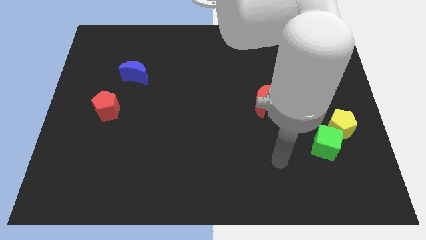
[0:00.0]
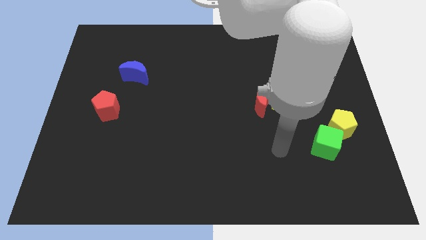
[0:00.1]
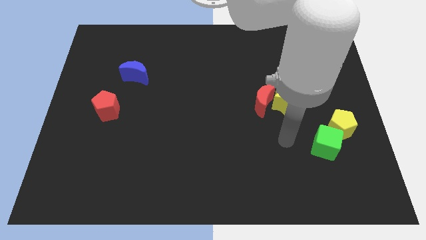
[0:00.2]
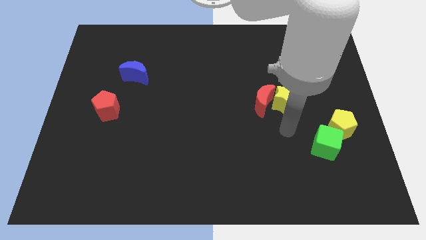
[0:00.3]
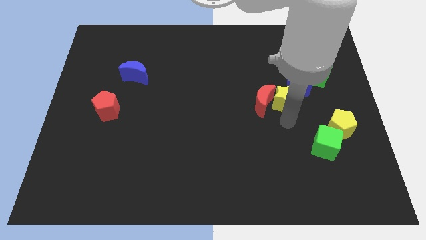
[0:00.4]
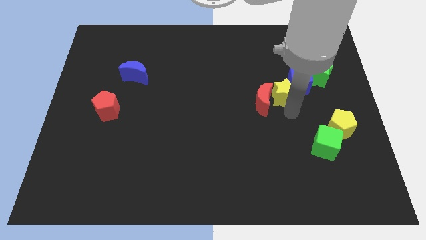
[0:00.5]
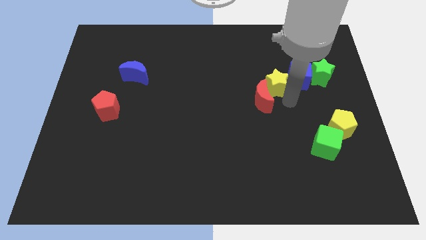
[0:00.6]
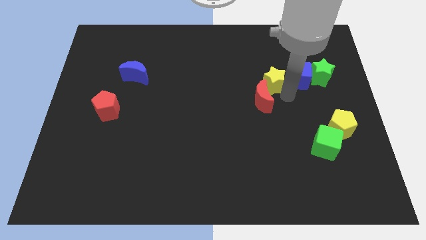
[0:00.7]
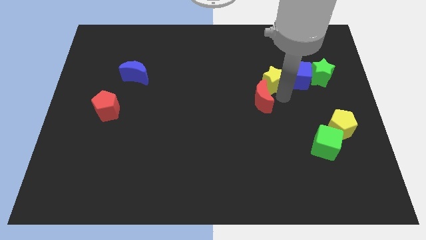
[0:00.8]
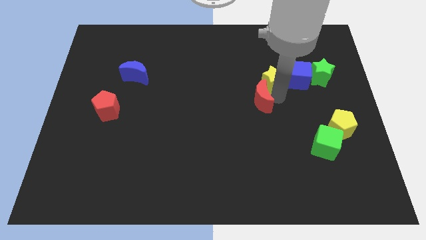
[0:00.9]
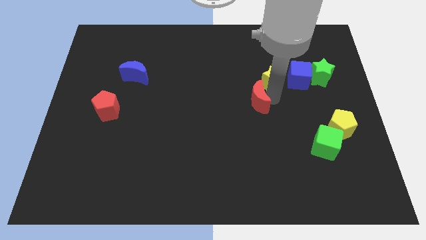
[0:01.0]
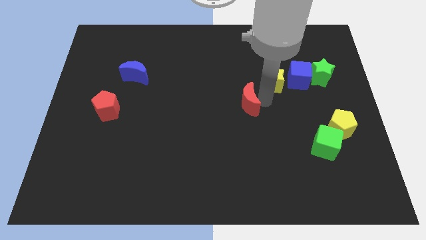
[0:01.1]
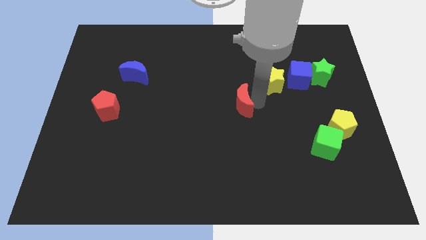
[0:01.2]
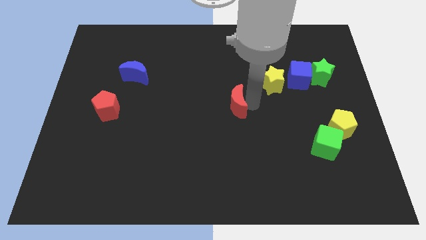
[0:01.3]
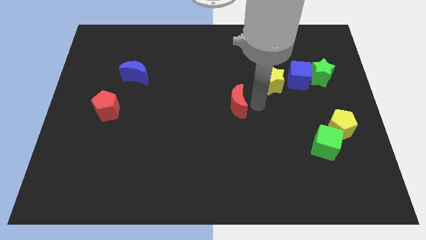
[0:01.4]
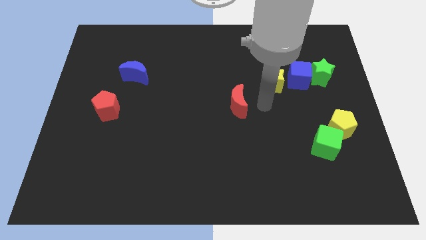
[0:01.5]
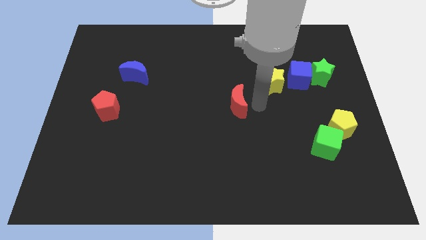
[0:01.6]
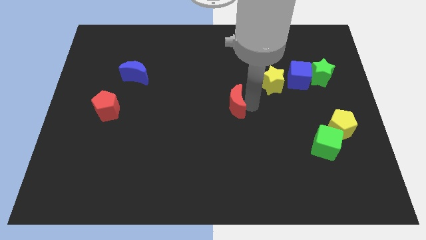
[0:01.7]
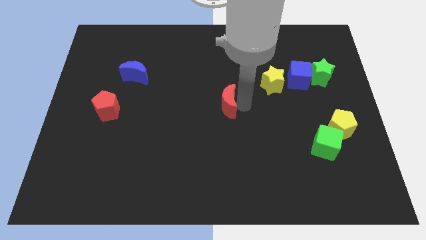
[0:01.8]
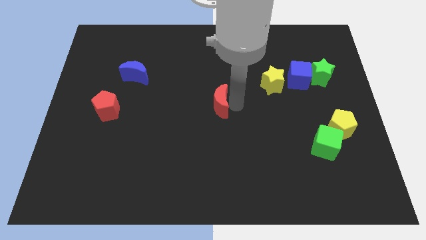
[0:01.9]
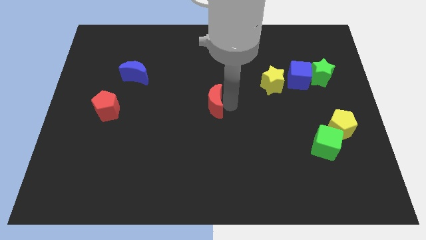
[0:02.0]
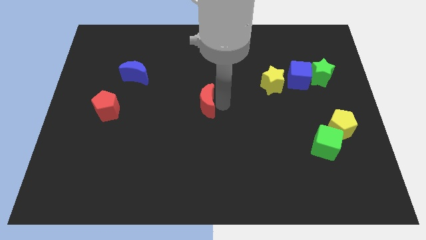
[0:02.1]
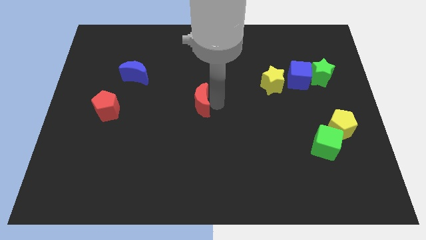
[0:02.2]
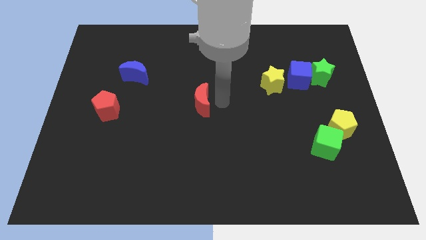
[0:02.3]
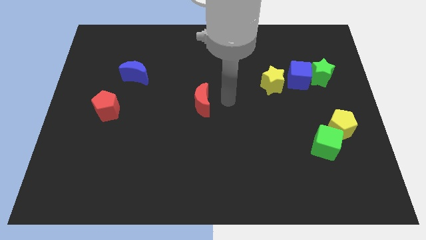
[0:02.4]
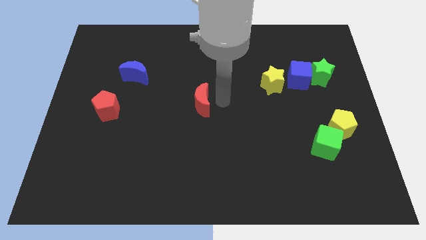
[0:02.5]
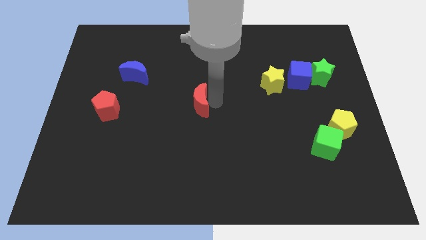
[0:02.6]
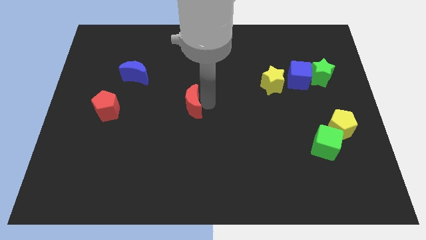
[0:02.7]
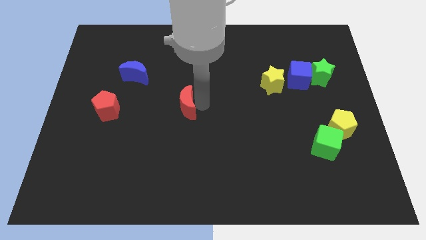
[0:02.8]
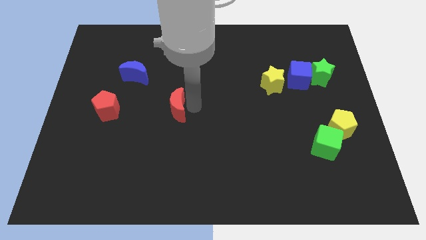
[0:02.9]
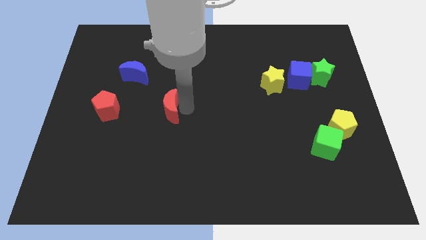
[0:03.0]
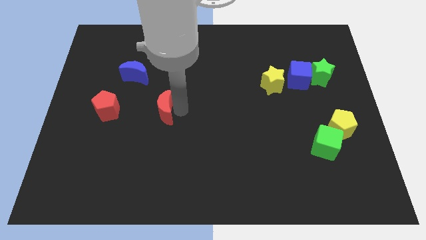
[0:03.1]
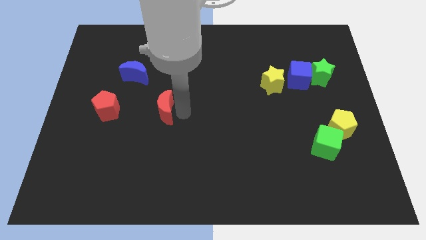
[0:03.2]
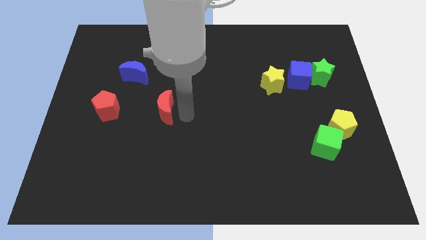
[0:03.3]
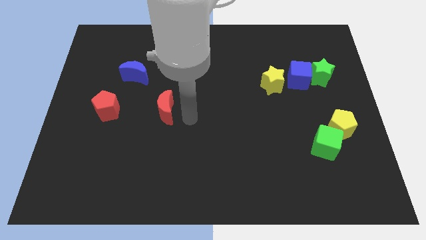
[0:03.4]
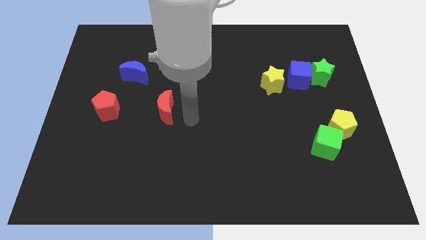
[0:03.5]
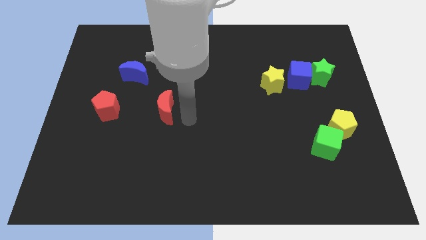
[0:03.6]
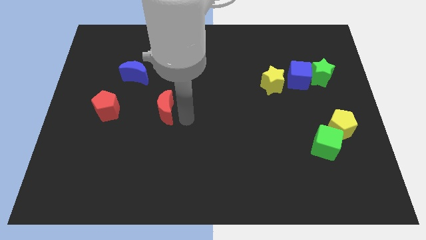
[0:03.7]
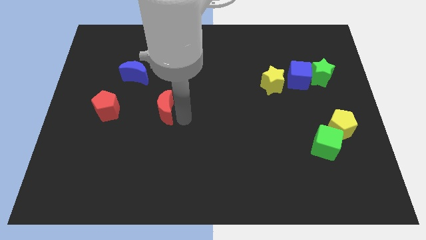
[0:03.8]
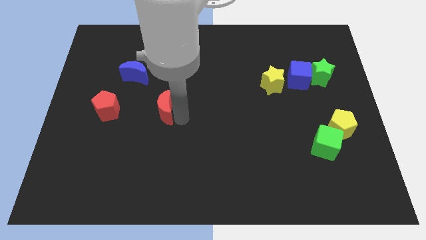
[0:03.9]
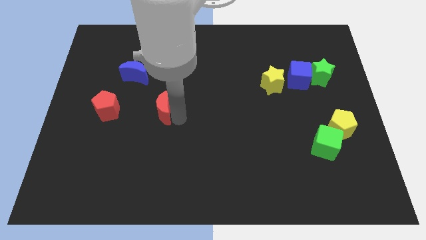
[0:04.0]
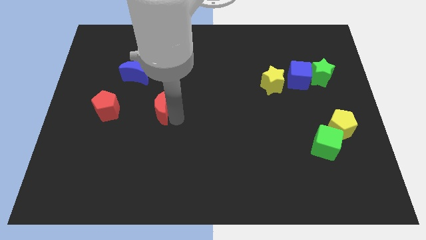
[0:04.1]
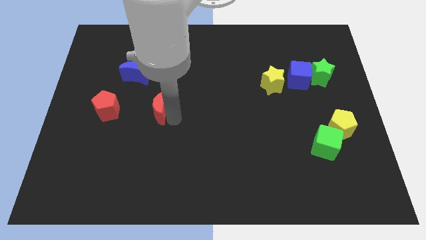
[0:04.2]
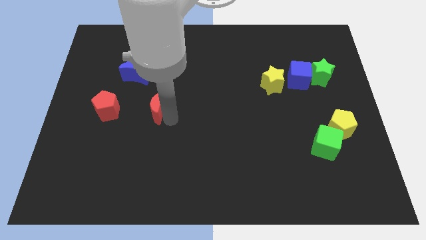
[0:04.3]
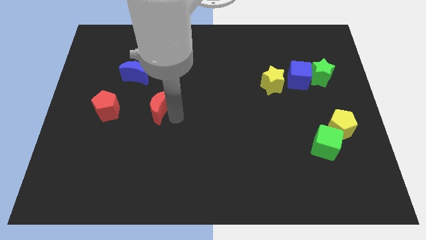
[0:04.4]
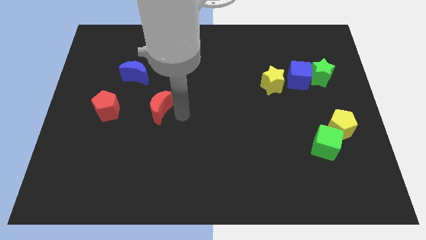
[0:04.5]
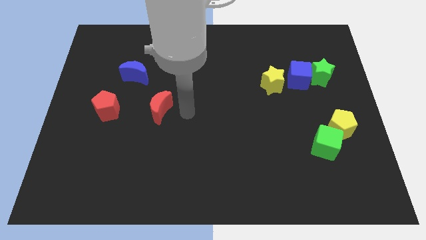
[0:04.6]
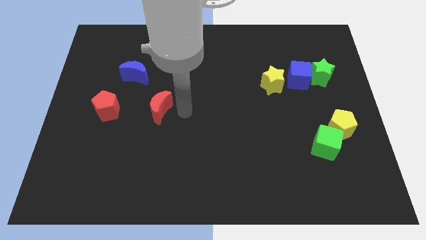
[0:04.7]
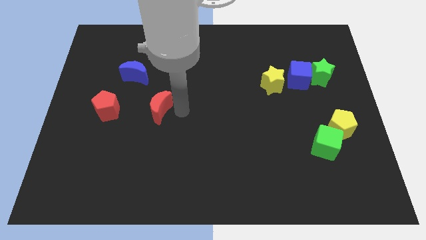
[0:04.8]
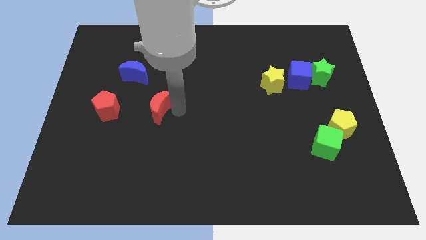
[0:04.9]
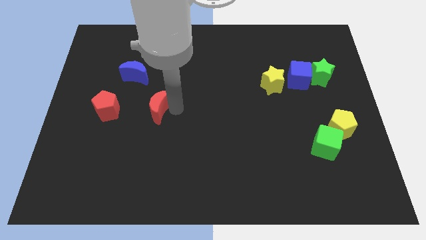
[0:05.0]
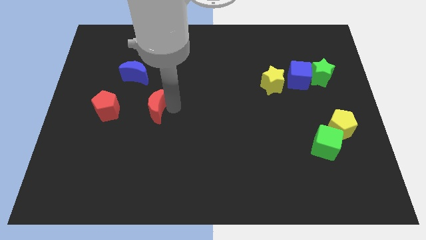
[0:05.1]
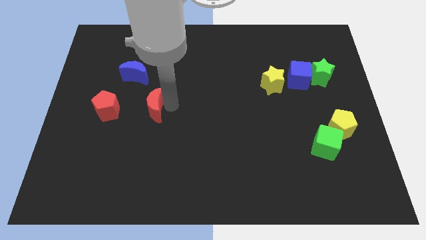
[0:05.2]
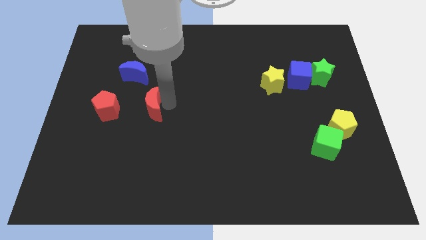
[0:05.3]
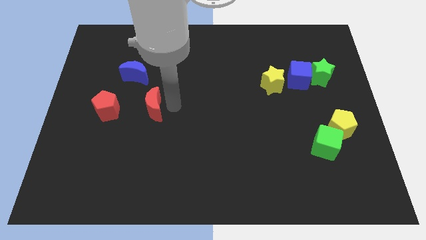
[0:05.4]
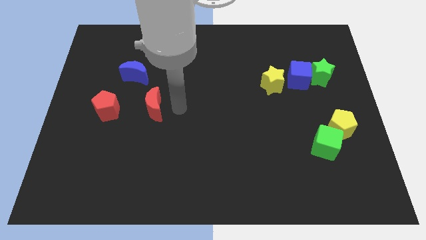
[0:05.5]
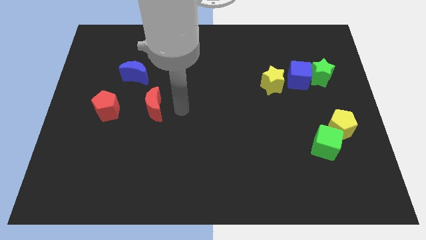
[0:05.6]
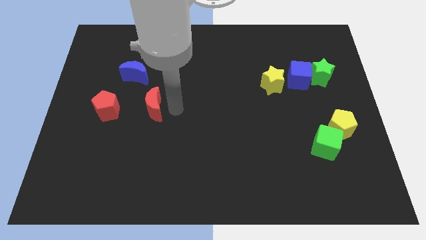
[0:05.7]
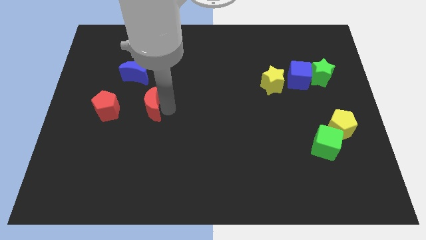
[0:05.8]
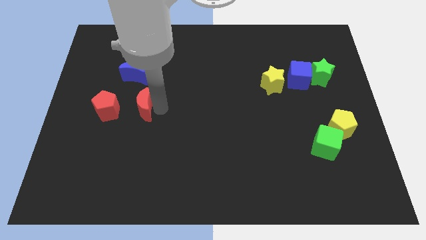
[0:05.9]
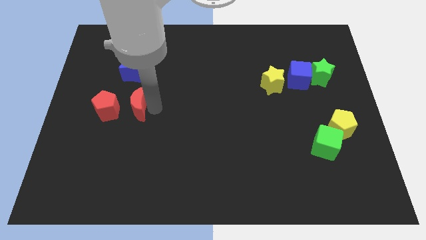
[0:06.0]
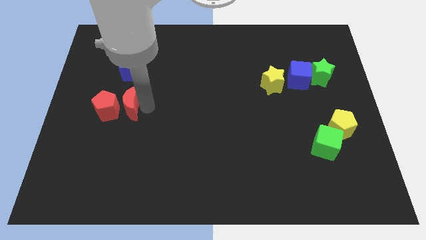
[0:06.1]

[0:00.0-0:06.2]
push the red moon towards the red pentagon
